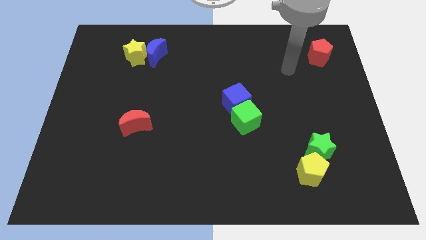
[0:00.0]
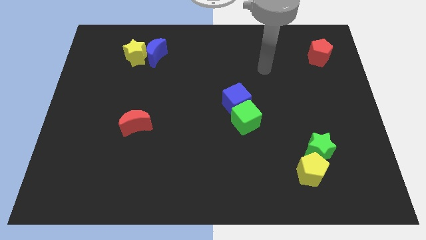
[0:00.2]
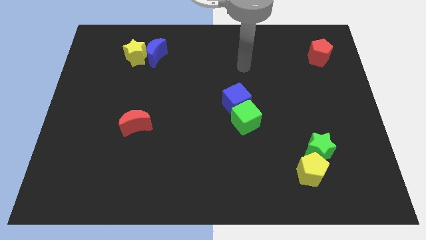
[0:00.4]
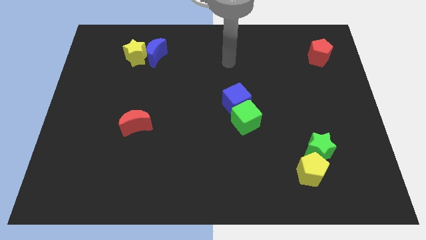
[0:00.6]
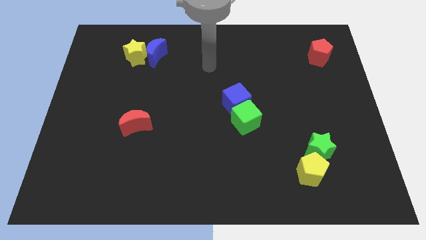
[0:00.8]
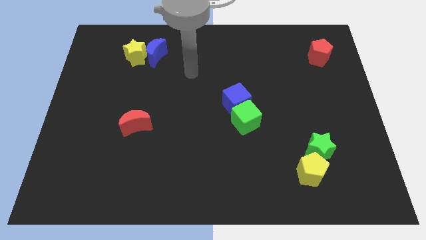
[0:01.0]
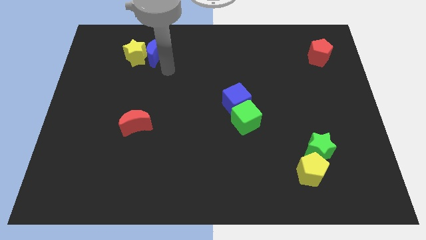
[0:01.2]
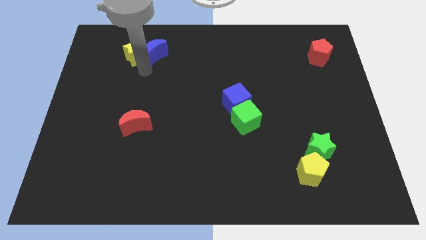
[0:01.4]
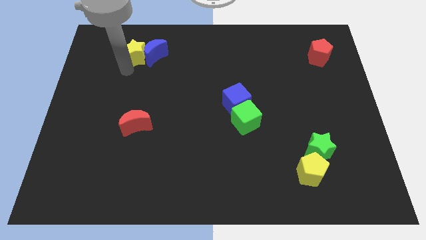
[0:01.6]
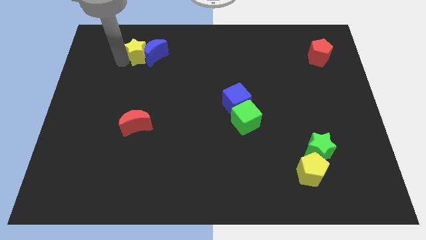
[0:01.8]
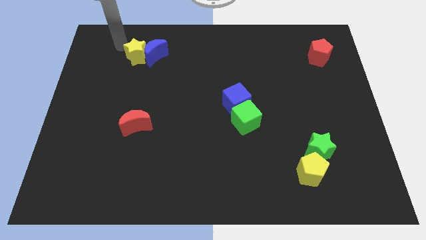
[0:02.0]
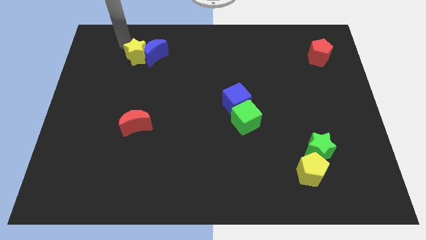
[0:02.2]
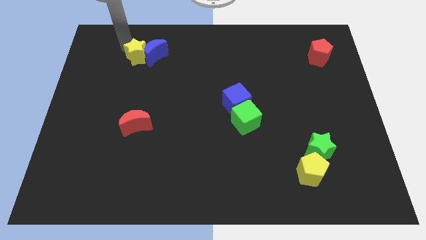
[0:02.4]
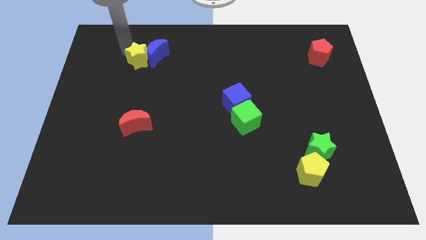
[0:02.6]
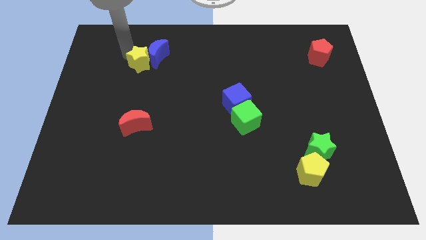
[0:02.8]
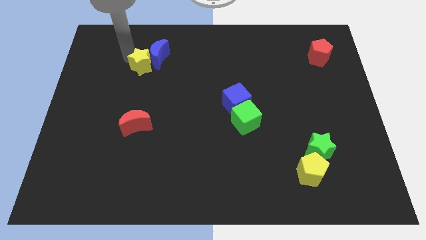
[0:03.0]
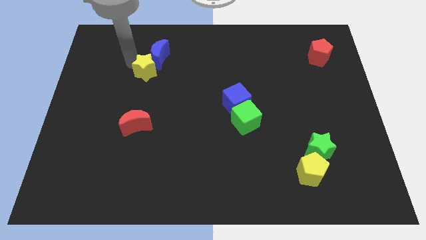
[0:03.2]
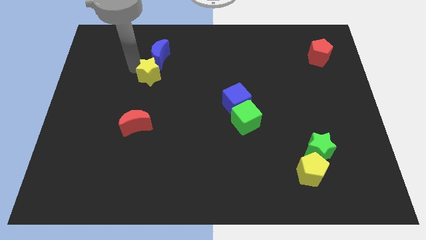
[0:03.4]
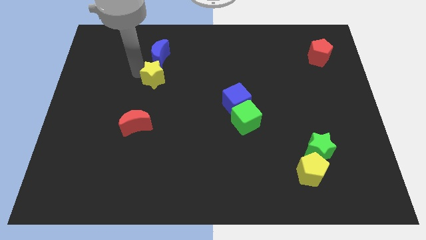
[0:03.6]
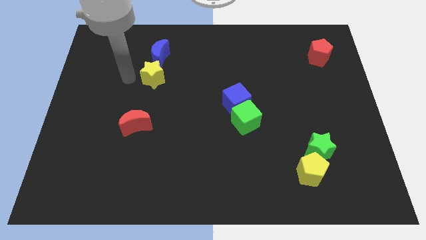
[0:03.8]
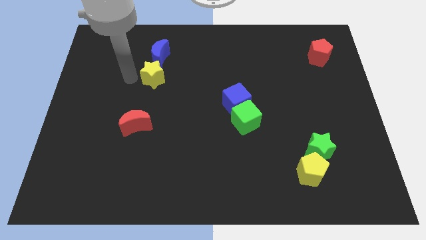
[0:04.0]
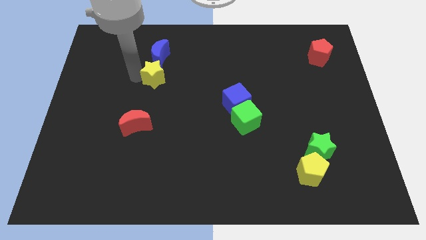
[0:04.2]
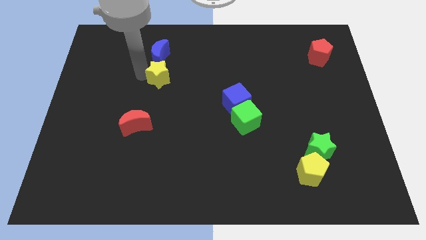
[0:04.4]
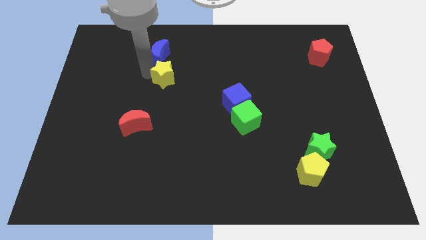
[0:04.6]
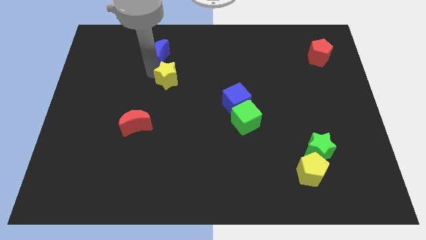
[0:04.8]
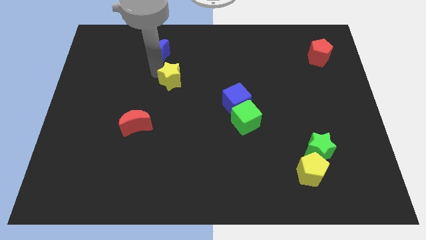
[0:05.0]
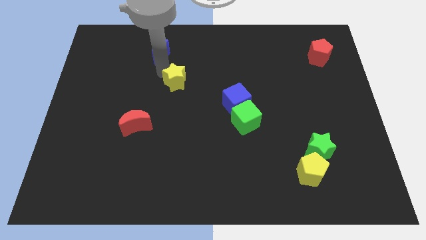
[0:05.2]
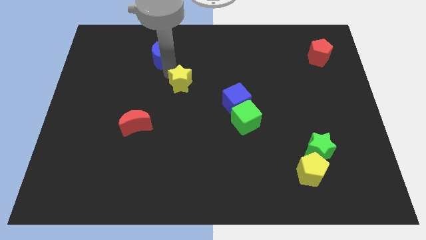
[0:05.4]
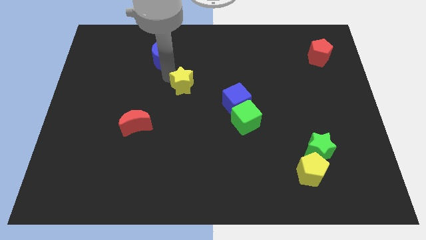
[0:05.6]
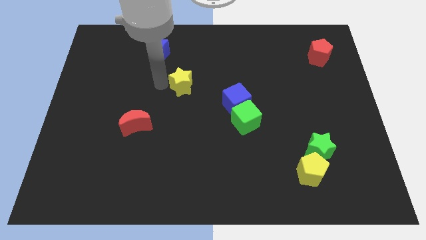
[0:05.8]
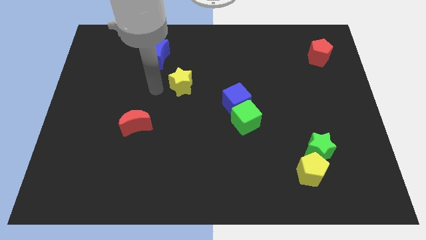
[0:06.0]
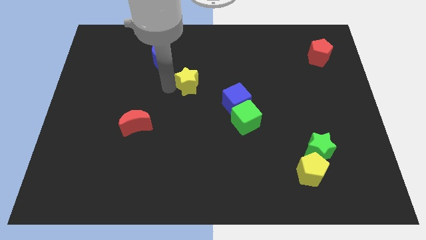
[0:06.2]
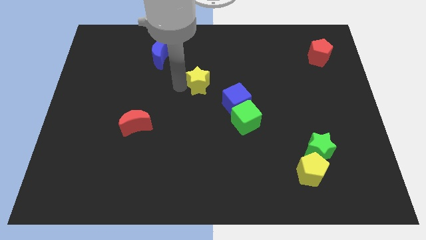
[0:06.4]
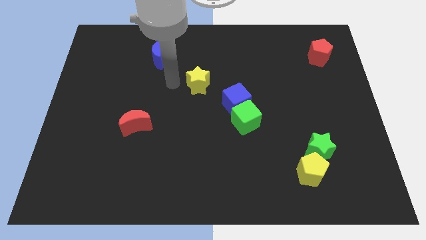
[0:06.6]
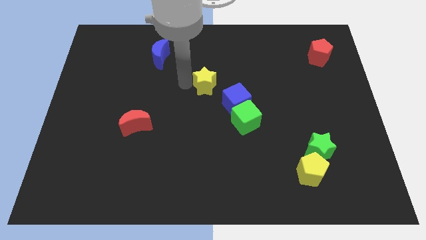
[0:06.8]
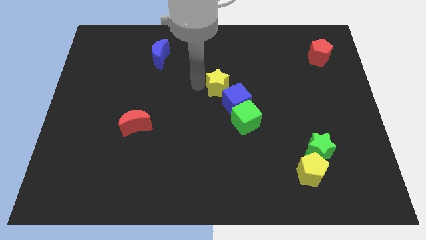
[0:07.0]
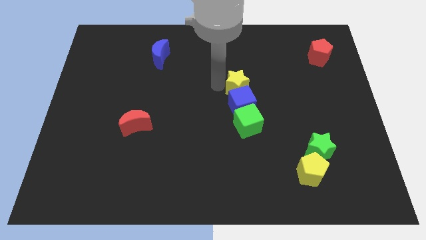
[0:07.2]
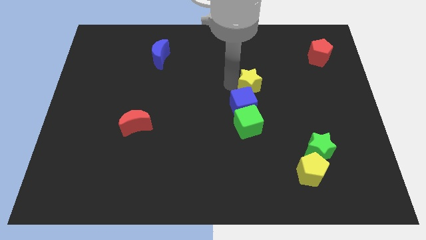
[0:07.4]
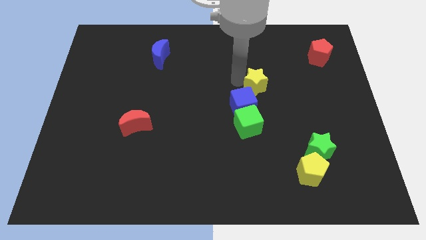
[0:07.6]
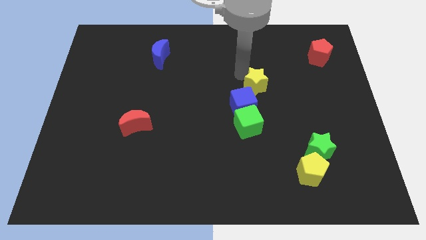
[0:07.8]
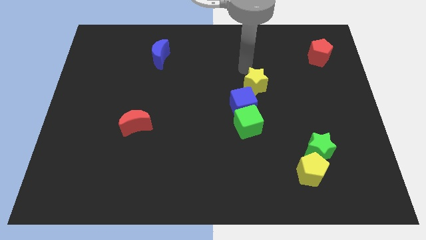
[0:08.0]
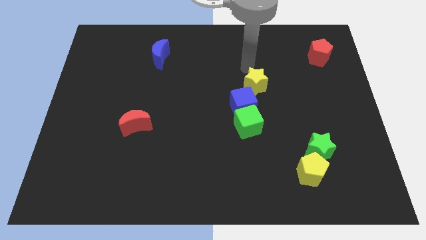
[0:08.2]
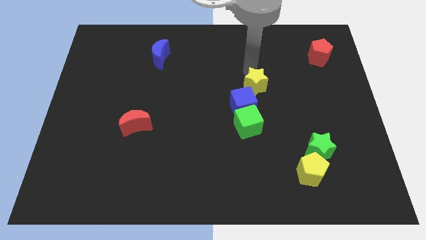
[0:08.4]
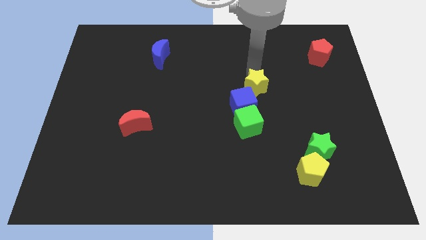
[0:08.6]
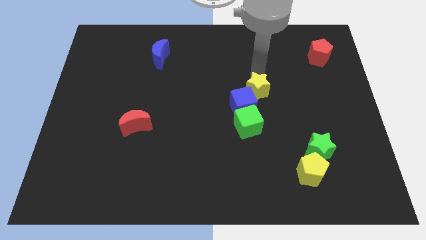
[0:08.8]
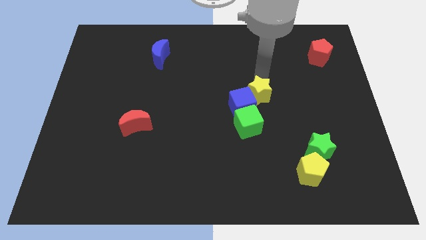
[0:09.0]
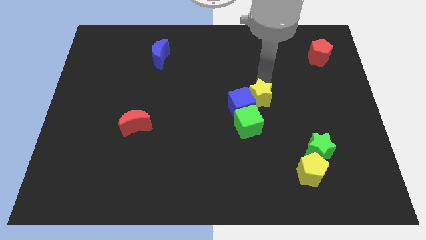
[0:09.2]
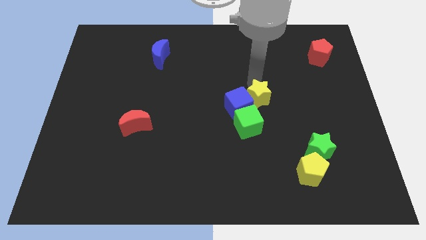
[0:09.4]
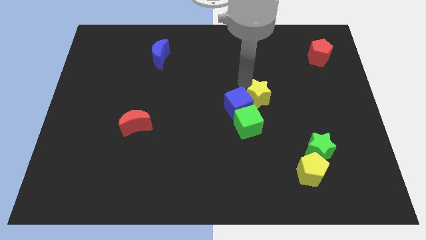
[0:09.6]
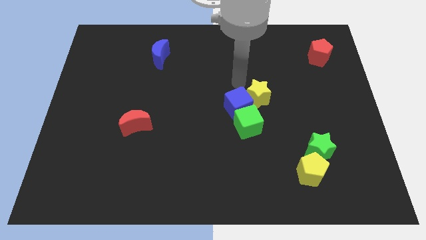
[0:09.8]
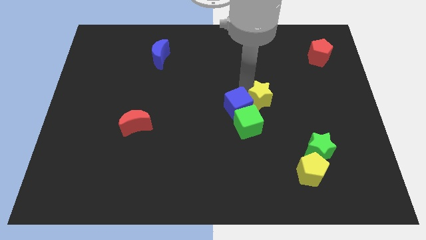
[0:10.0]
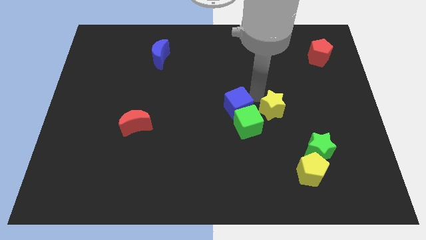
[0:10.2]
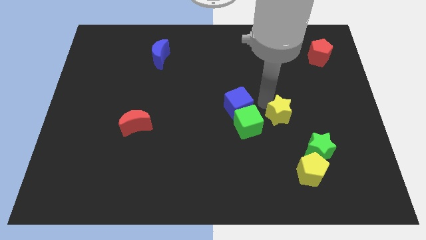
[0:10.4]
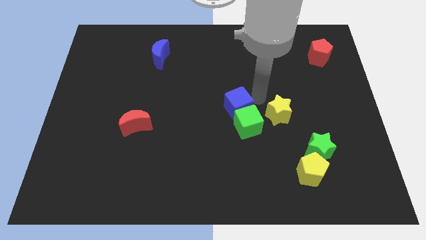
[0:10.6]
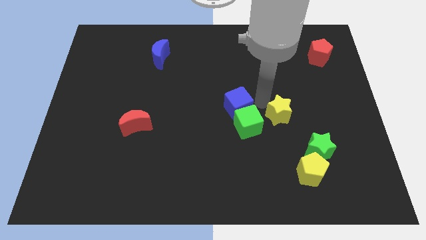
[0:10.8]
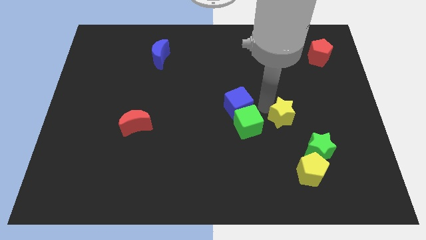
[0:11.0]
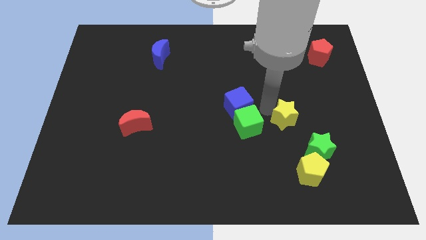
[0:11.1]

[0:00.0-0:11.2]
move the yellow star above the yellow pentagon

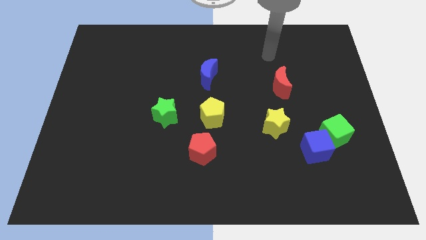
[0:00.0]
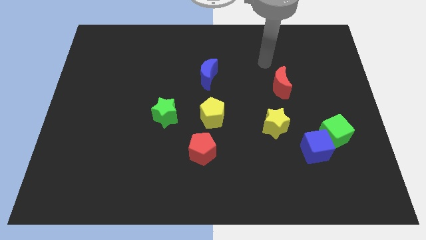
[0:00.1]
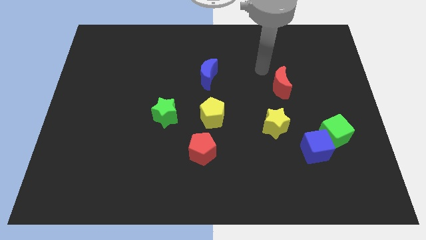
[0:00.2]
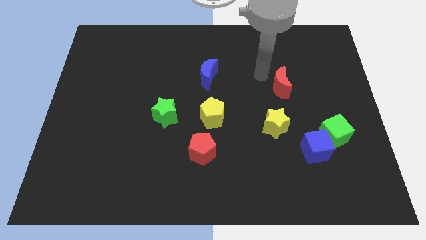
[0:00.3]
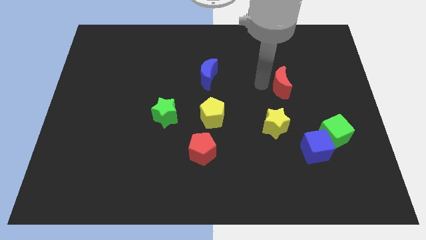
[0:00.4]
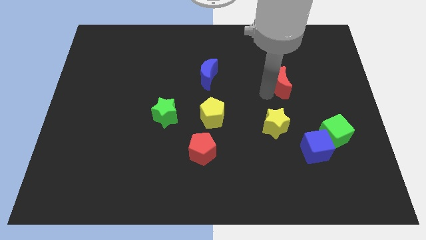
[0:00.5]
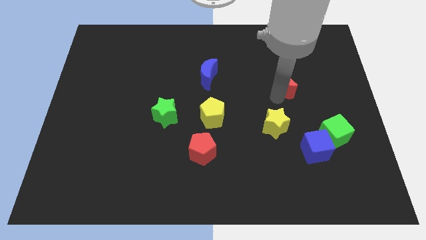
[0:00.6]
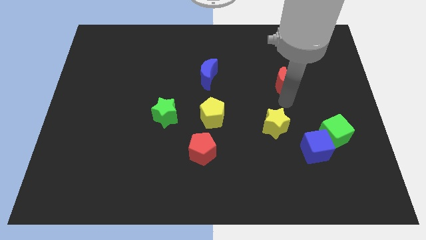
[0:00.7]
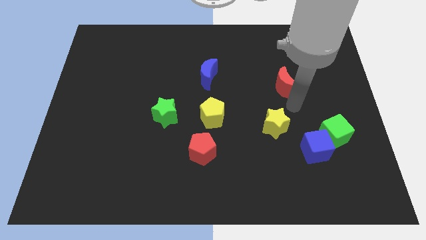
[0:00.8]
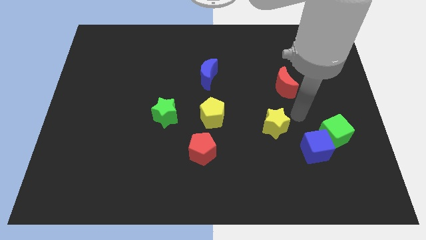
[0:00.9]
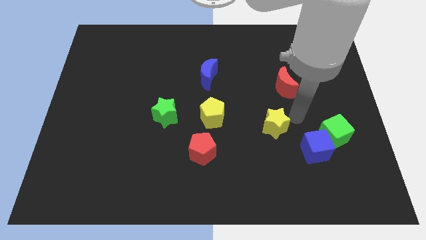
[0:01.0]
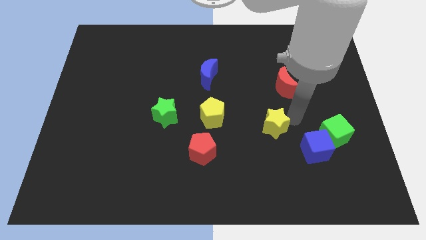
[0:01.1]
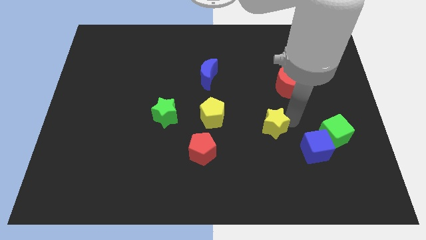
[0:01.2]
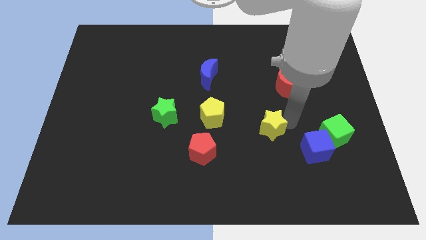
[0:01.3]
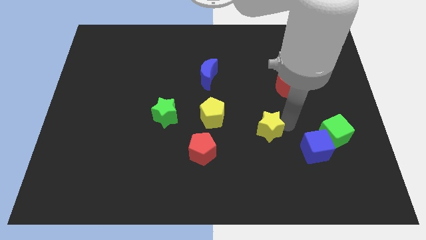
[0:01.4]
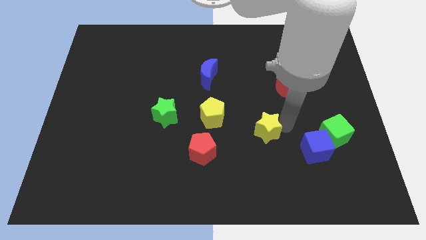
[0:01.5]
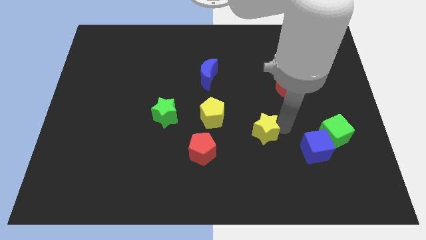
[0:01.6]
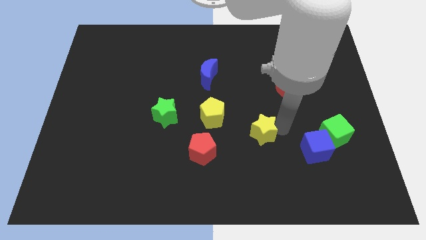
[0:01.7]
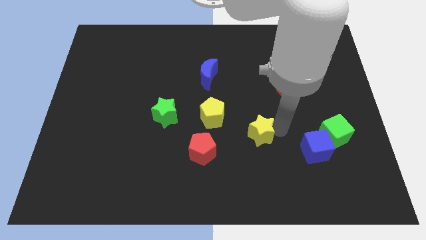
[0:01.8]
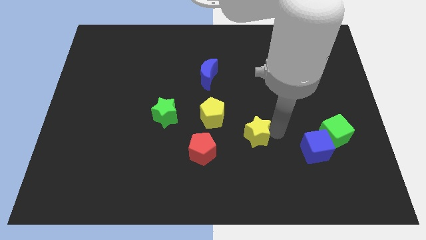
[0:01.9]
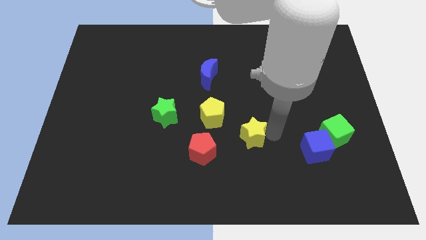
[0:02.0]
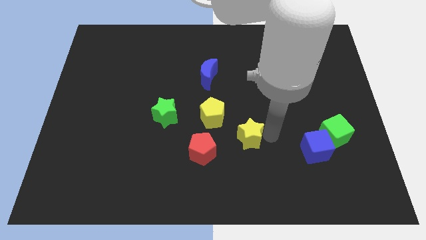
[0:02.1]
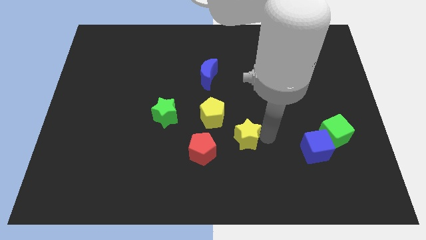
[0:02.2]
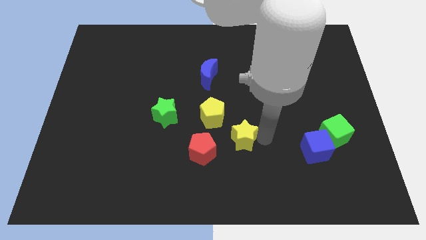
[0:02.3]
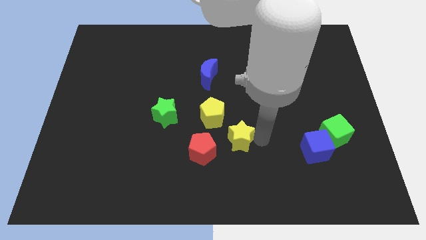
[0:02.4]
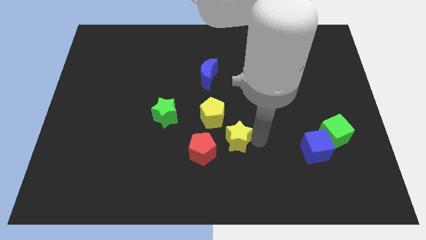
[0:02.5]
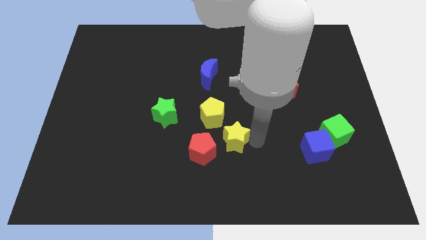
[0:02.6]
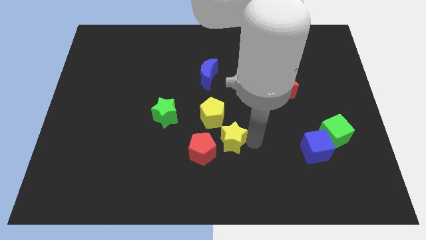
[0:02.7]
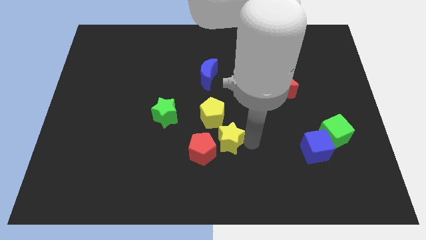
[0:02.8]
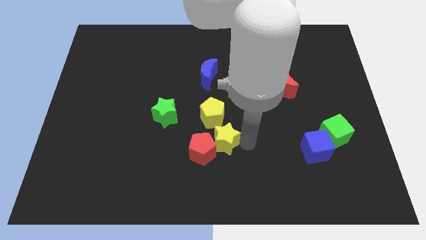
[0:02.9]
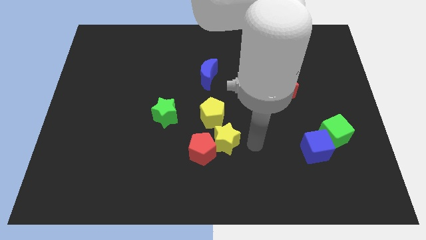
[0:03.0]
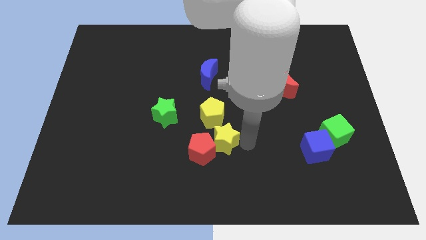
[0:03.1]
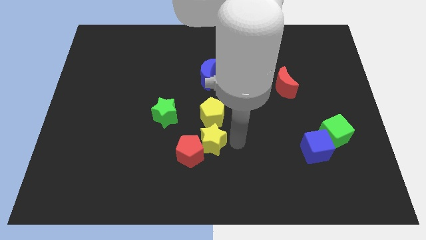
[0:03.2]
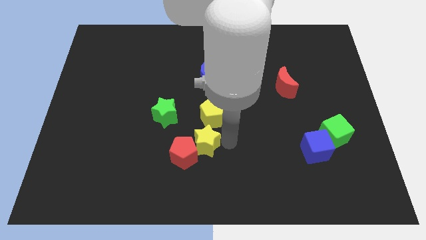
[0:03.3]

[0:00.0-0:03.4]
move the yellow star to the bottom right side of the green star
